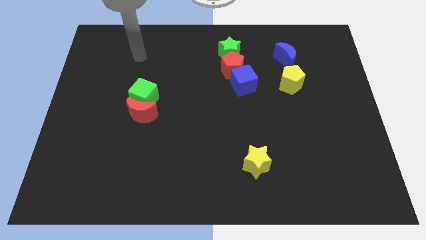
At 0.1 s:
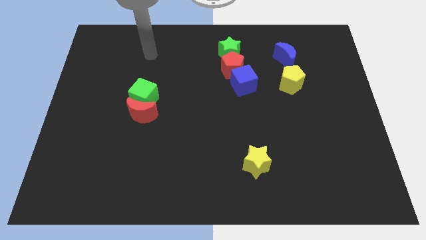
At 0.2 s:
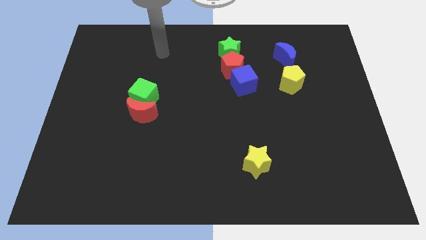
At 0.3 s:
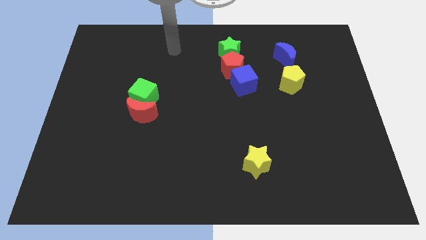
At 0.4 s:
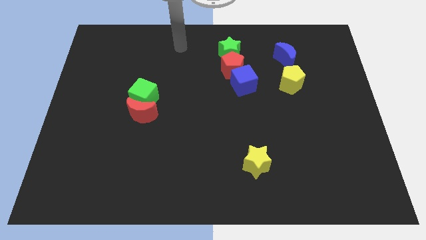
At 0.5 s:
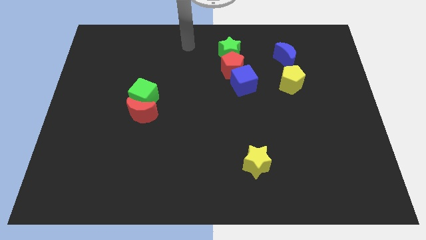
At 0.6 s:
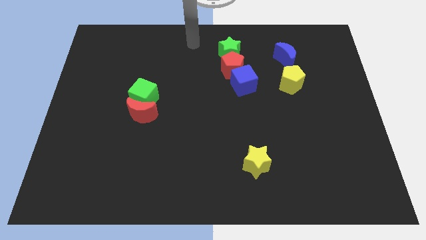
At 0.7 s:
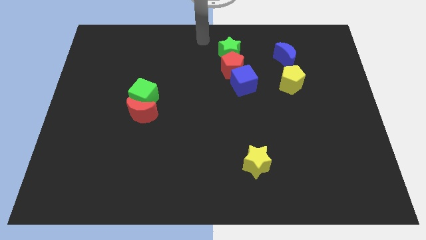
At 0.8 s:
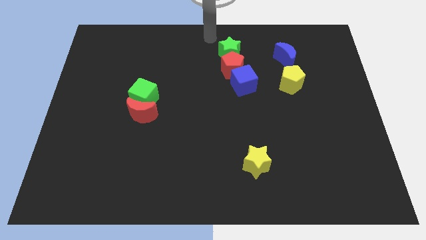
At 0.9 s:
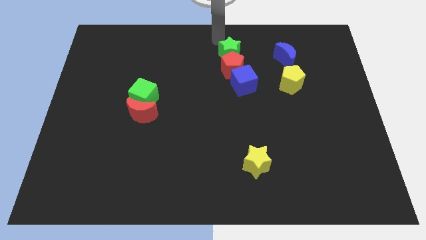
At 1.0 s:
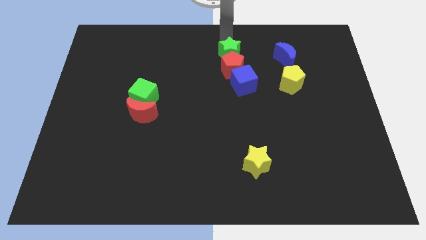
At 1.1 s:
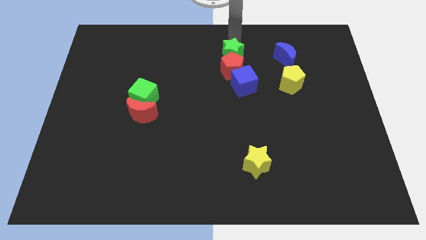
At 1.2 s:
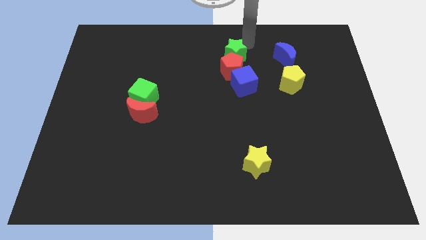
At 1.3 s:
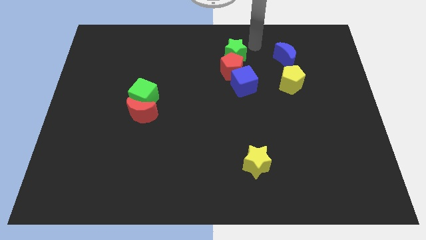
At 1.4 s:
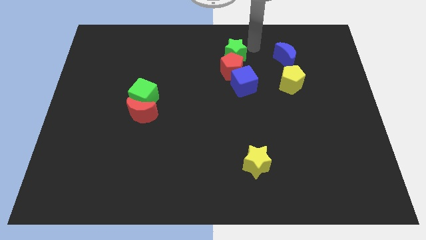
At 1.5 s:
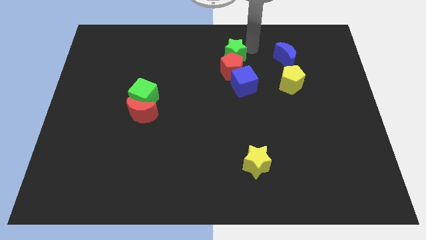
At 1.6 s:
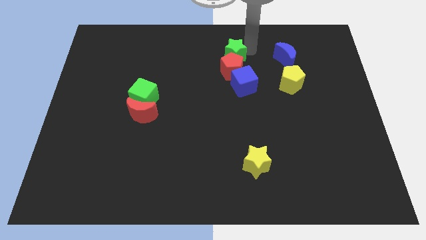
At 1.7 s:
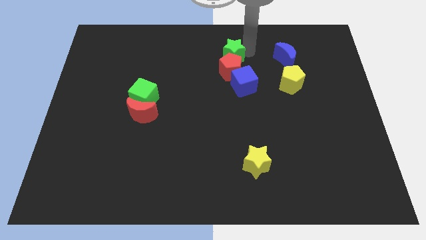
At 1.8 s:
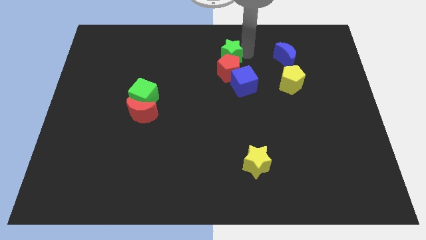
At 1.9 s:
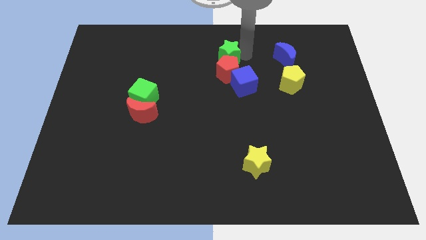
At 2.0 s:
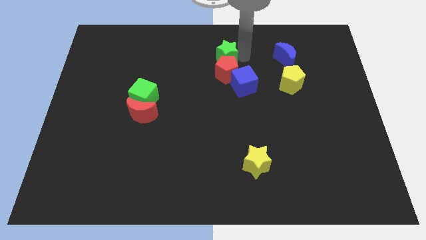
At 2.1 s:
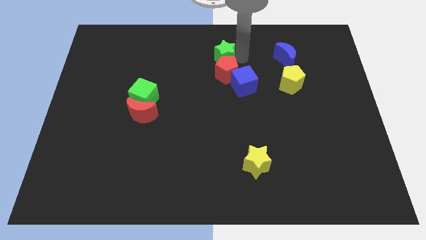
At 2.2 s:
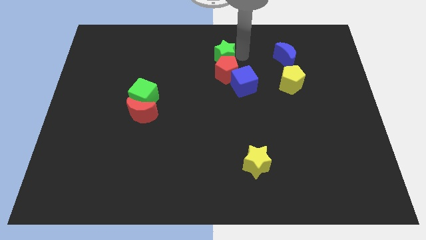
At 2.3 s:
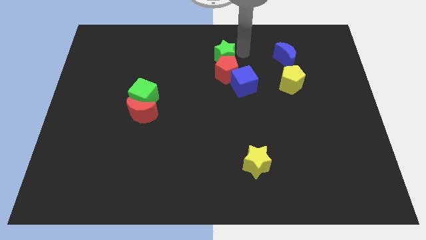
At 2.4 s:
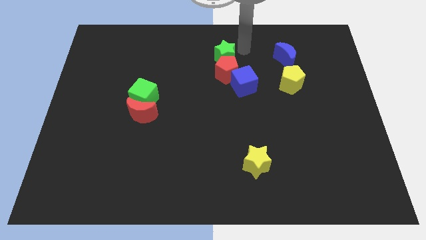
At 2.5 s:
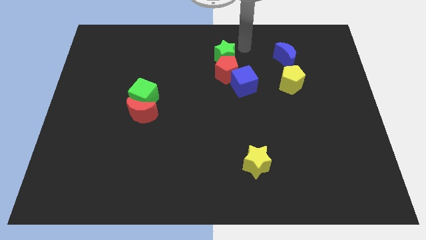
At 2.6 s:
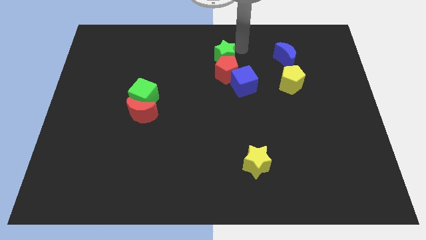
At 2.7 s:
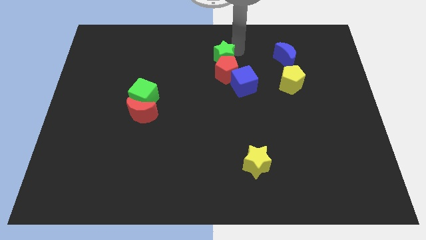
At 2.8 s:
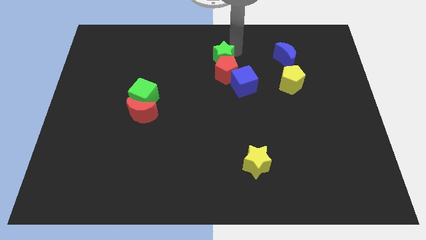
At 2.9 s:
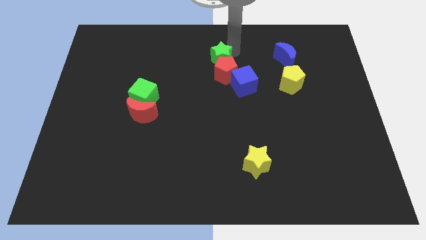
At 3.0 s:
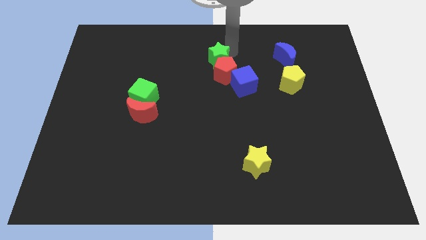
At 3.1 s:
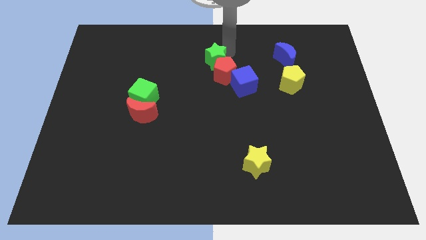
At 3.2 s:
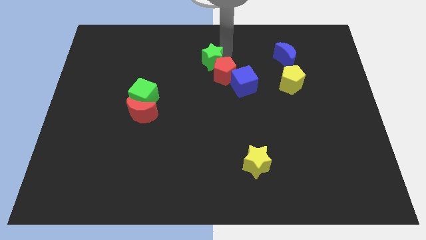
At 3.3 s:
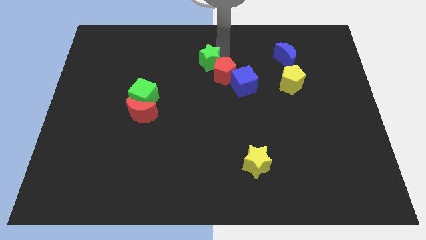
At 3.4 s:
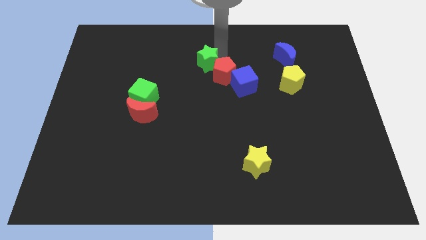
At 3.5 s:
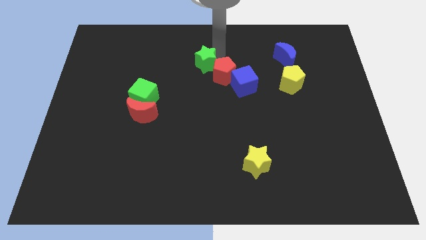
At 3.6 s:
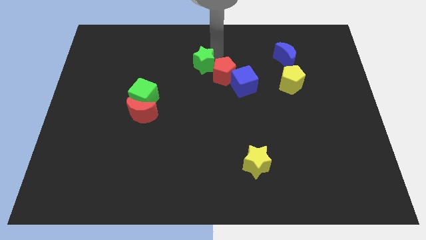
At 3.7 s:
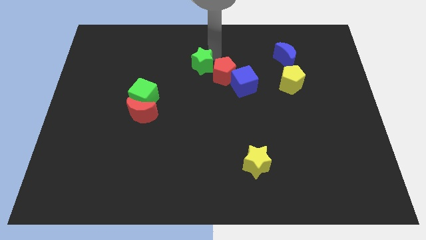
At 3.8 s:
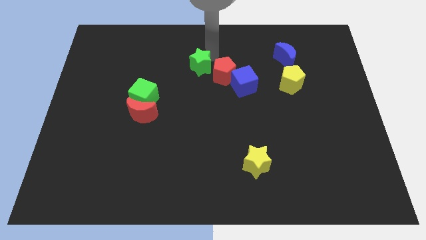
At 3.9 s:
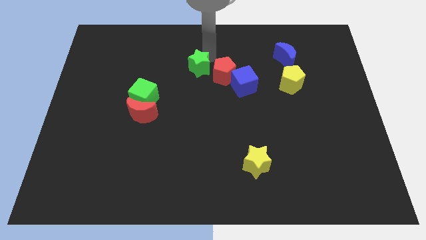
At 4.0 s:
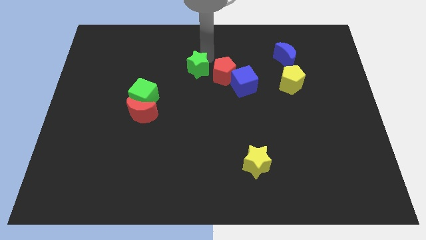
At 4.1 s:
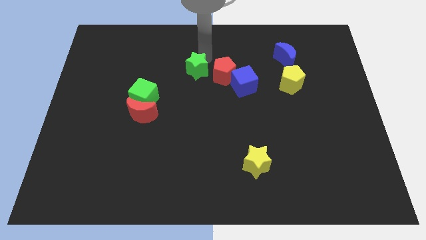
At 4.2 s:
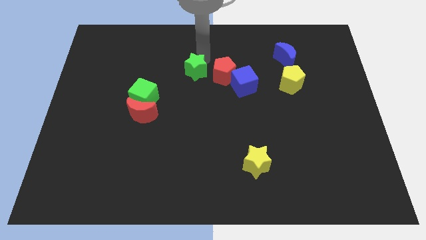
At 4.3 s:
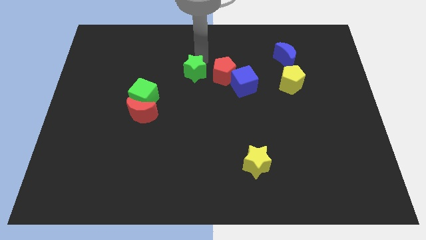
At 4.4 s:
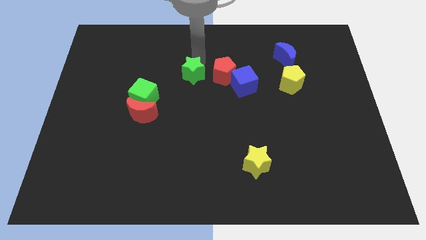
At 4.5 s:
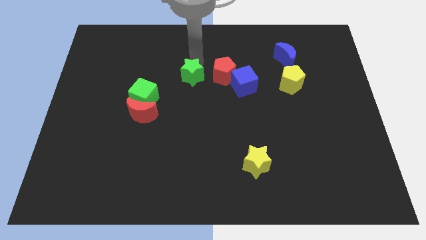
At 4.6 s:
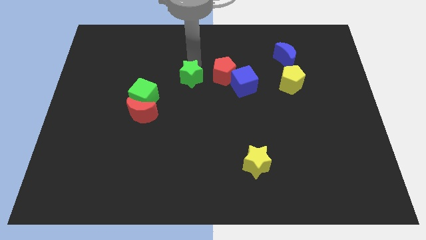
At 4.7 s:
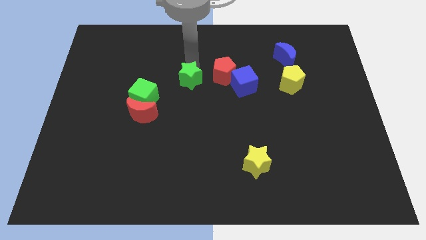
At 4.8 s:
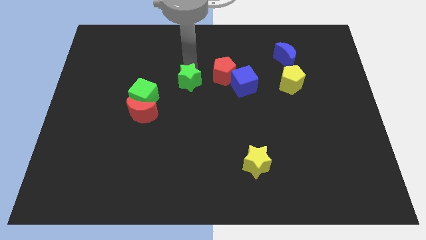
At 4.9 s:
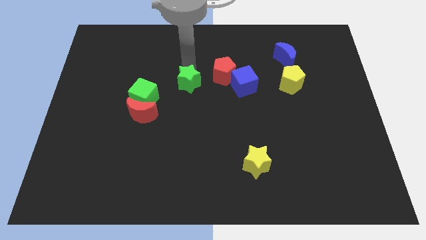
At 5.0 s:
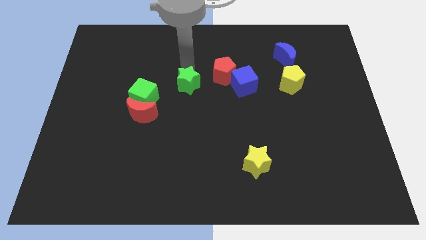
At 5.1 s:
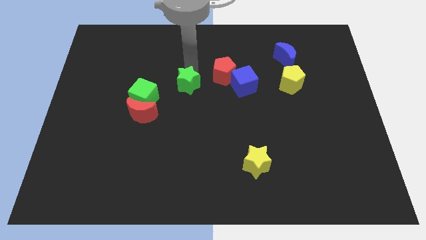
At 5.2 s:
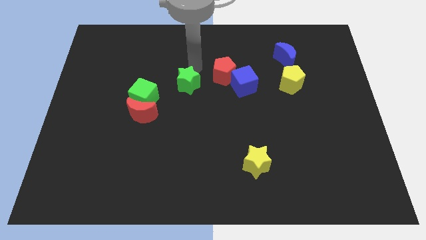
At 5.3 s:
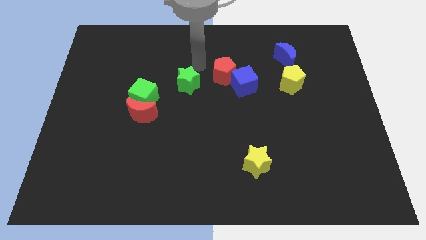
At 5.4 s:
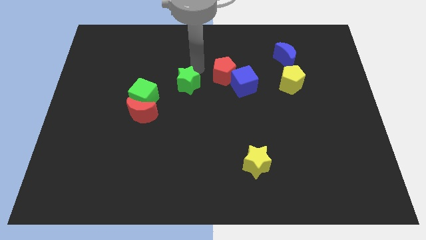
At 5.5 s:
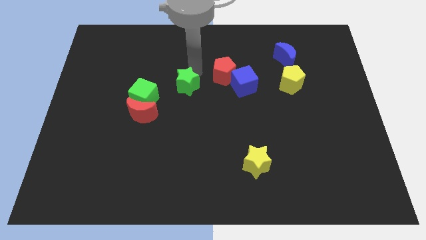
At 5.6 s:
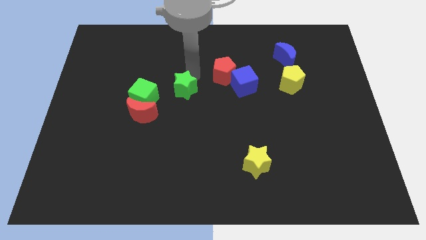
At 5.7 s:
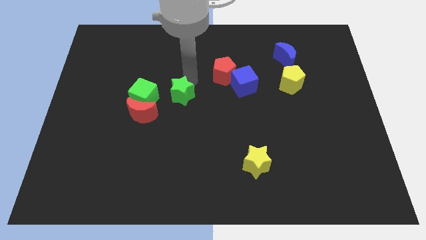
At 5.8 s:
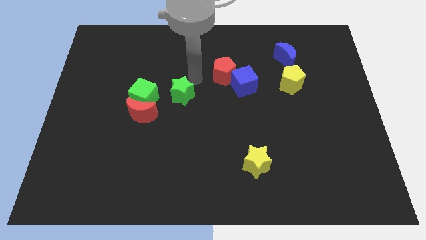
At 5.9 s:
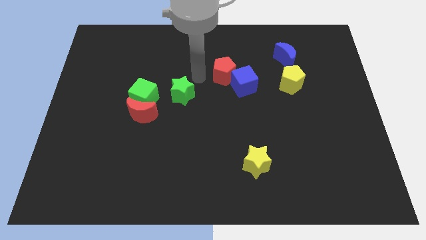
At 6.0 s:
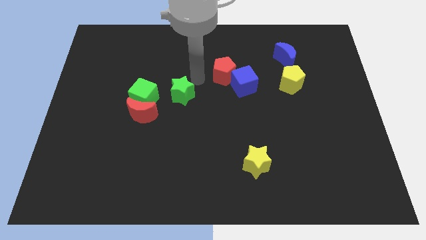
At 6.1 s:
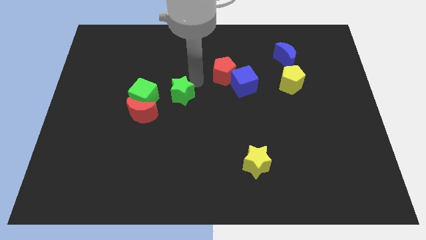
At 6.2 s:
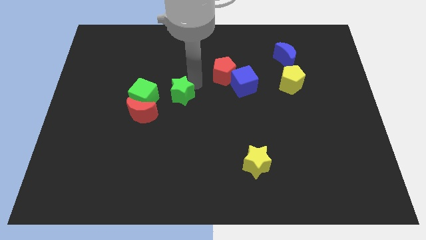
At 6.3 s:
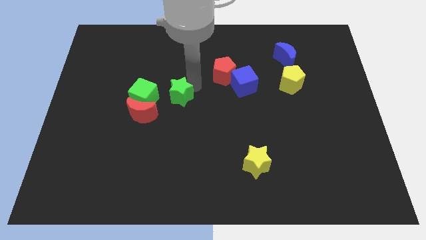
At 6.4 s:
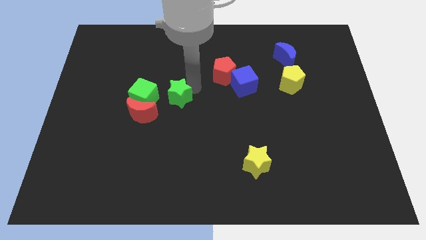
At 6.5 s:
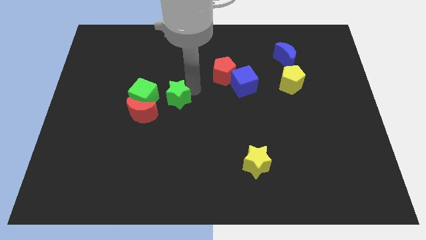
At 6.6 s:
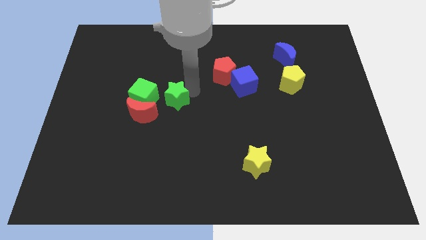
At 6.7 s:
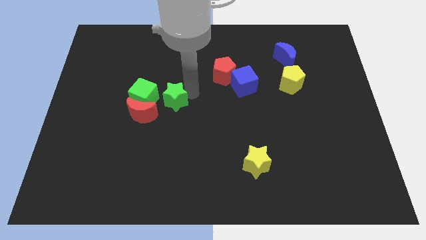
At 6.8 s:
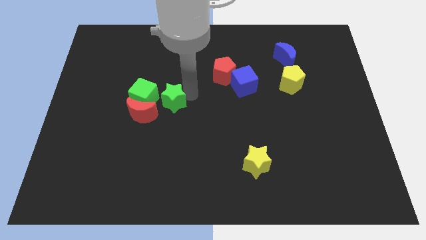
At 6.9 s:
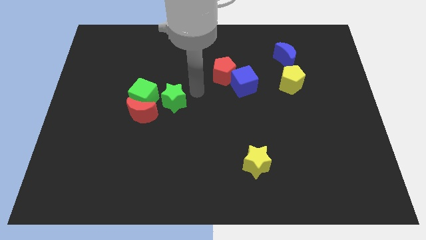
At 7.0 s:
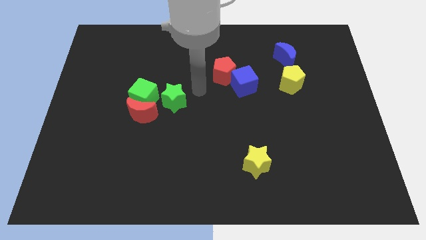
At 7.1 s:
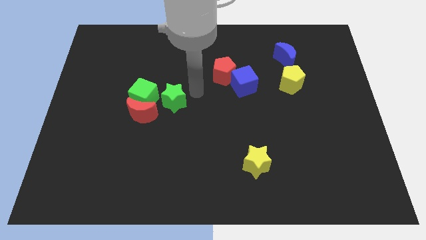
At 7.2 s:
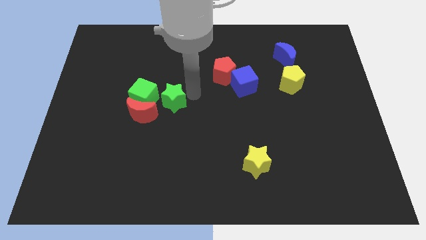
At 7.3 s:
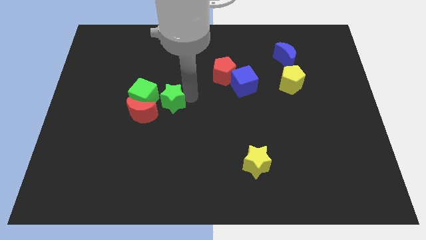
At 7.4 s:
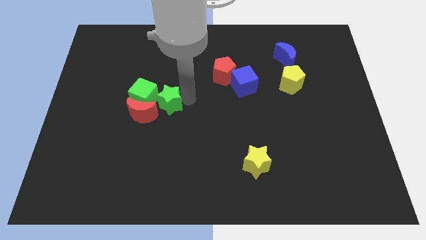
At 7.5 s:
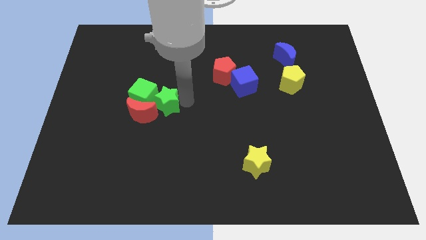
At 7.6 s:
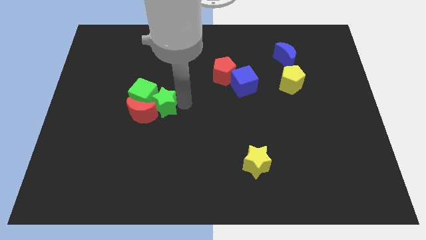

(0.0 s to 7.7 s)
push the green star towards the red moon
